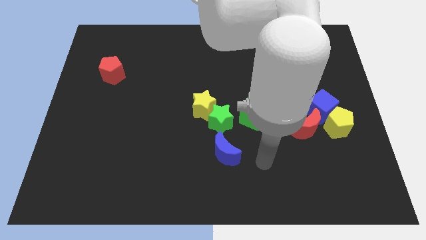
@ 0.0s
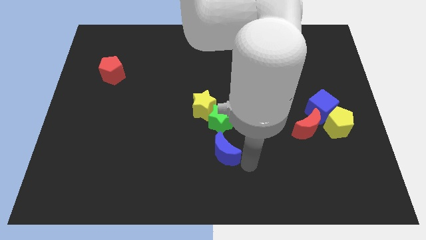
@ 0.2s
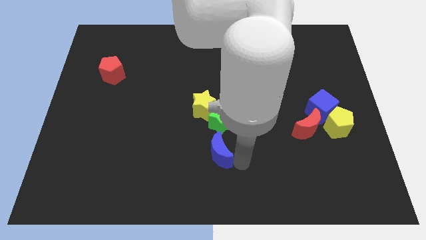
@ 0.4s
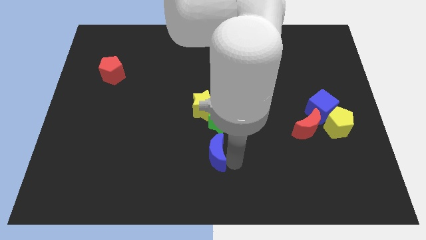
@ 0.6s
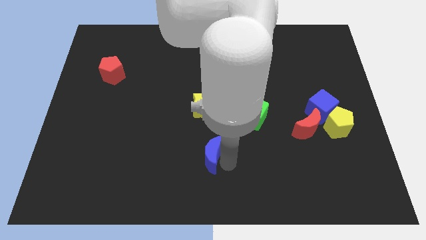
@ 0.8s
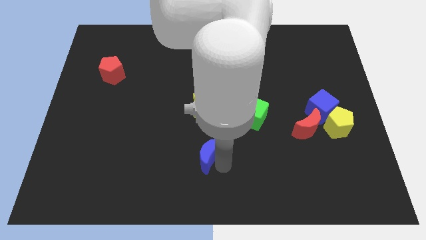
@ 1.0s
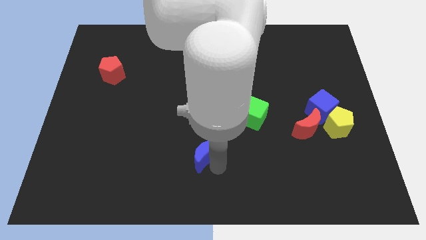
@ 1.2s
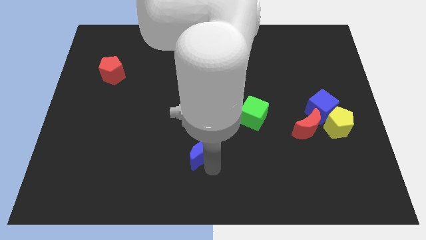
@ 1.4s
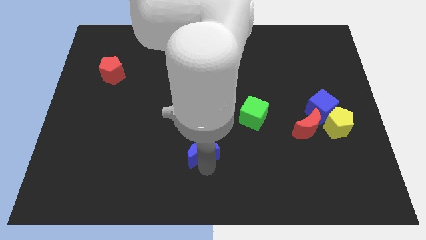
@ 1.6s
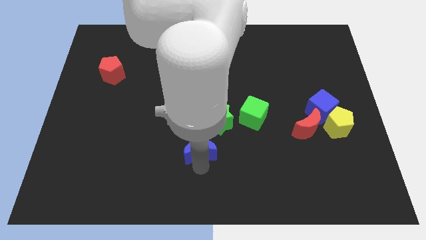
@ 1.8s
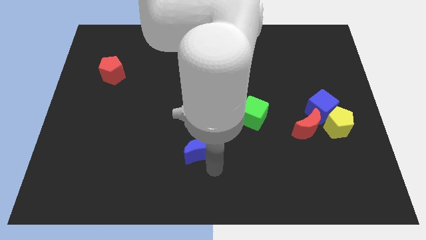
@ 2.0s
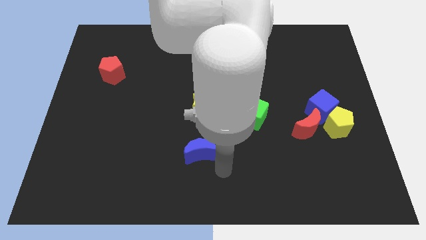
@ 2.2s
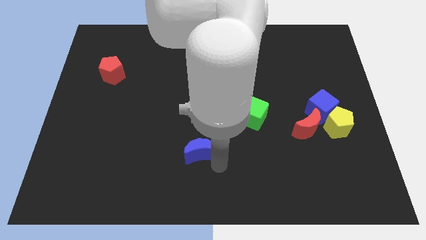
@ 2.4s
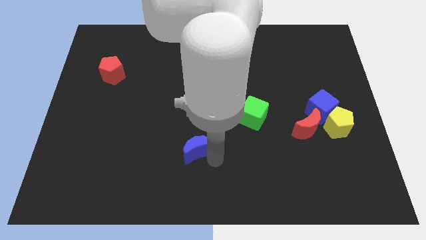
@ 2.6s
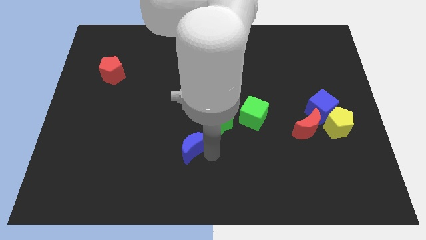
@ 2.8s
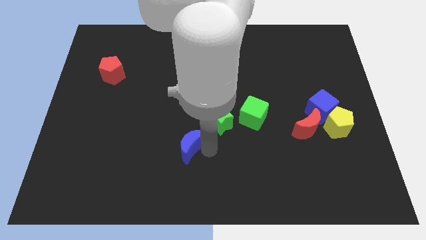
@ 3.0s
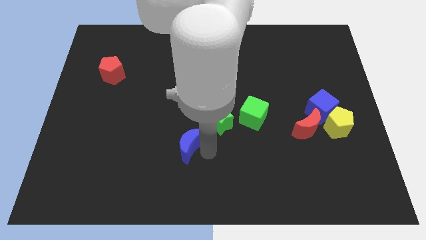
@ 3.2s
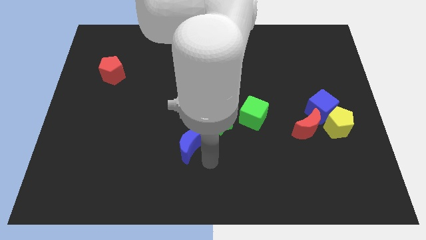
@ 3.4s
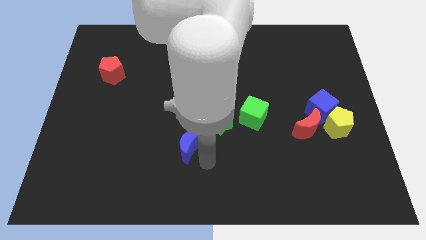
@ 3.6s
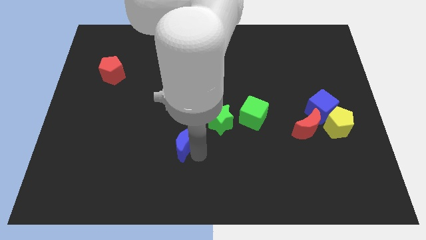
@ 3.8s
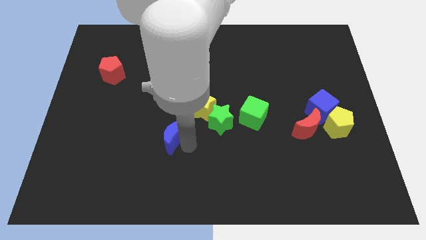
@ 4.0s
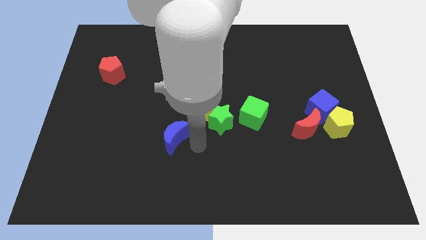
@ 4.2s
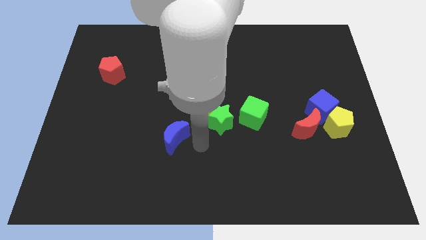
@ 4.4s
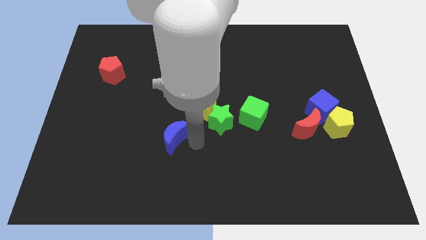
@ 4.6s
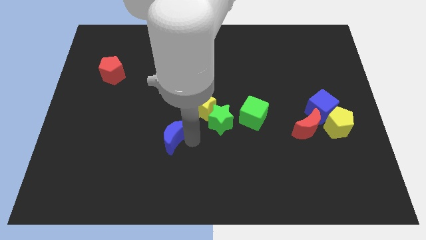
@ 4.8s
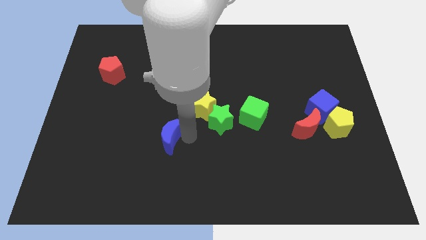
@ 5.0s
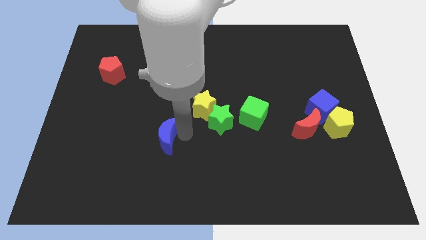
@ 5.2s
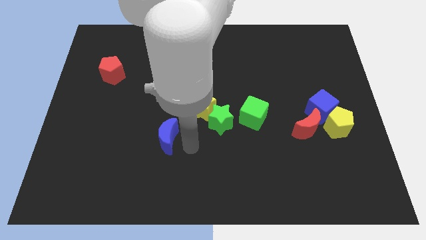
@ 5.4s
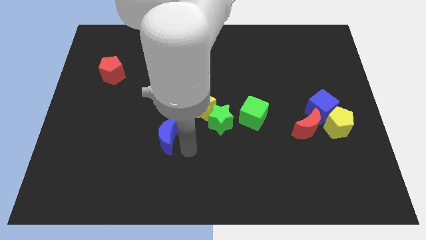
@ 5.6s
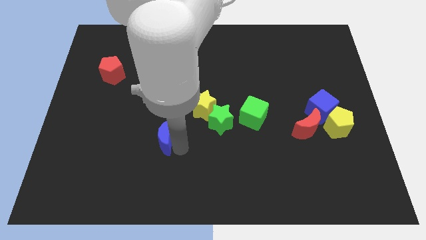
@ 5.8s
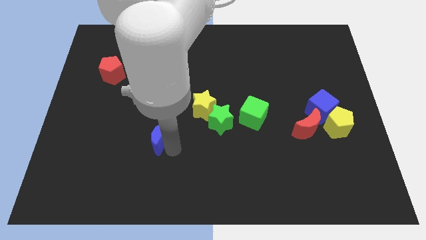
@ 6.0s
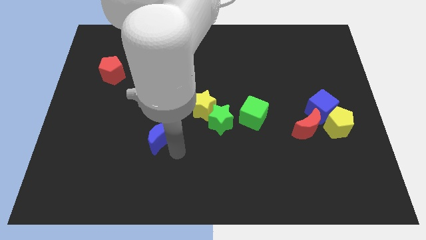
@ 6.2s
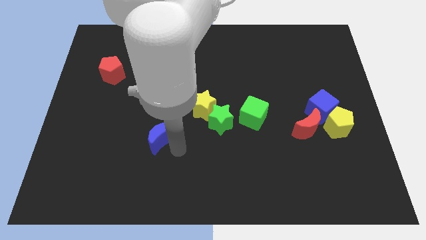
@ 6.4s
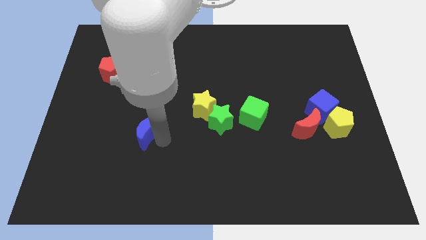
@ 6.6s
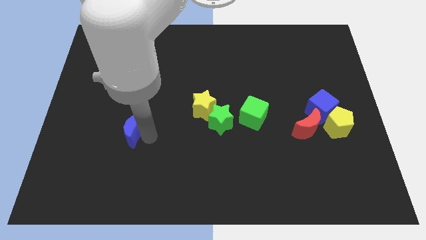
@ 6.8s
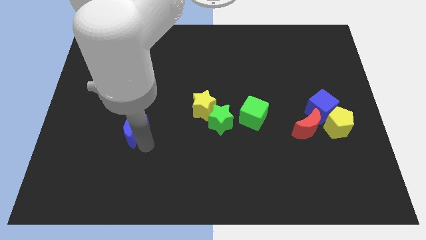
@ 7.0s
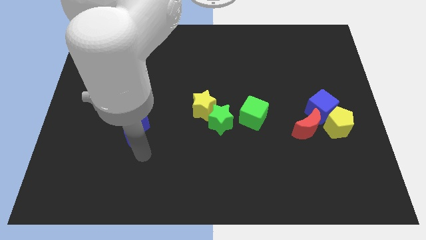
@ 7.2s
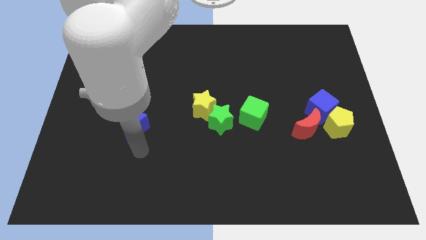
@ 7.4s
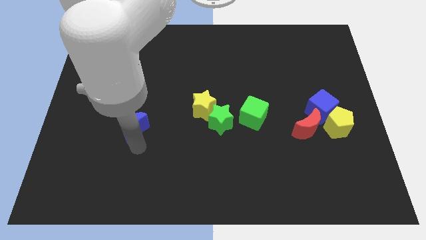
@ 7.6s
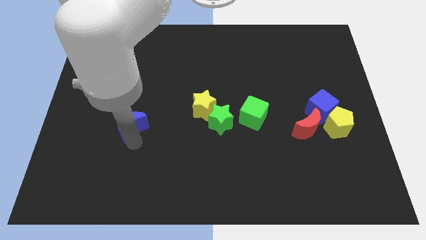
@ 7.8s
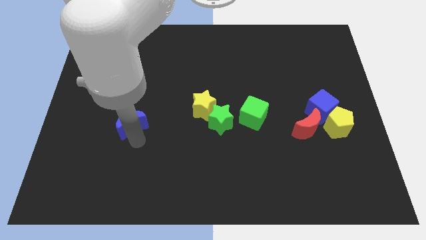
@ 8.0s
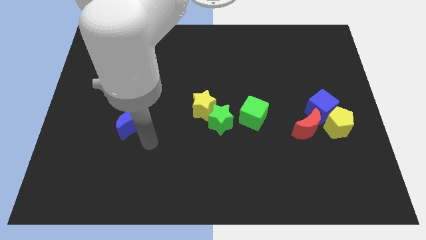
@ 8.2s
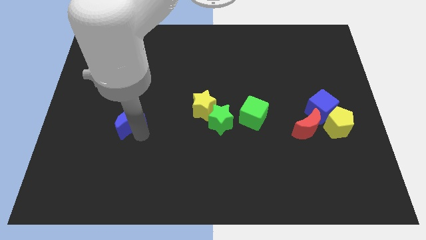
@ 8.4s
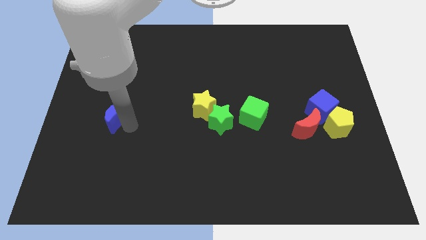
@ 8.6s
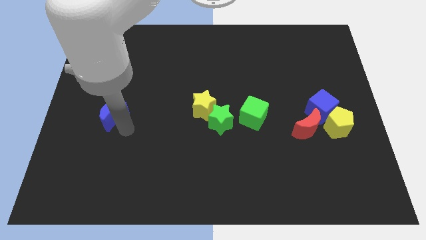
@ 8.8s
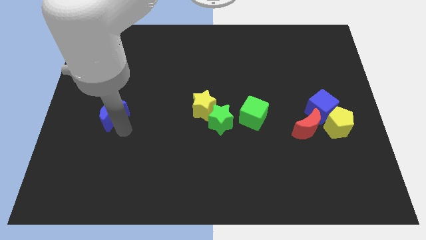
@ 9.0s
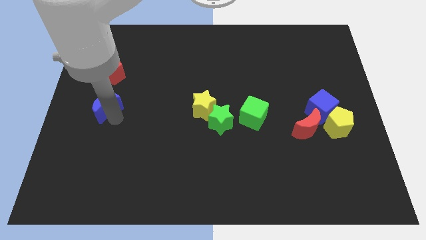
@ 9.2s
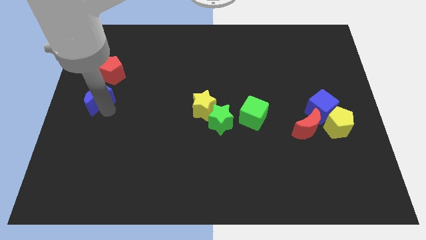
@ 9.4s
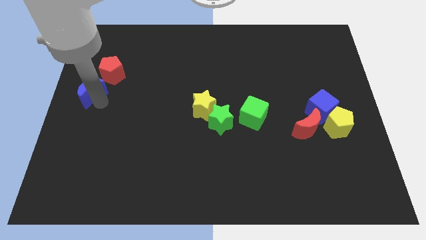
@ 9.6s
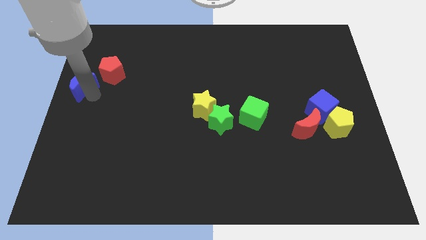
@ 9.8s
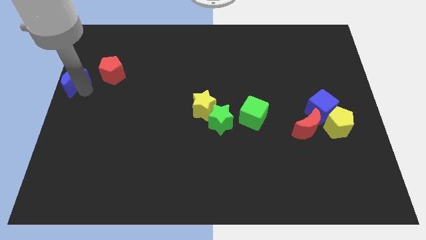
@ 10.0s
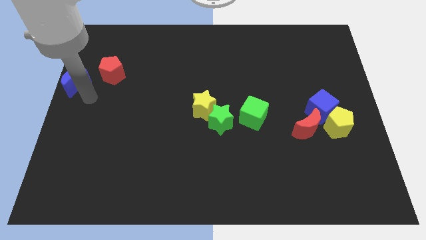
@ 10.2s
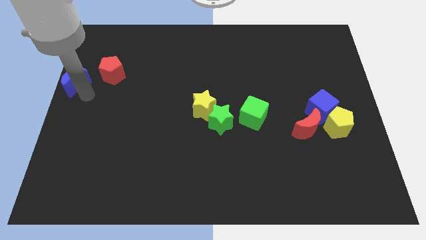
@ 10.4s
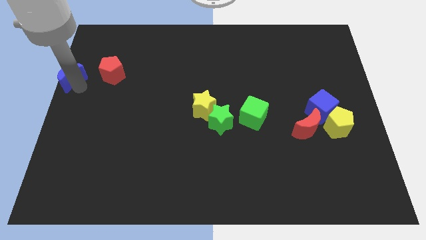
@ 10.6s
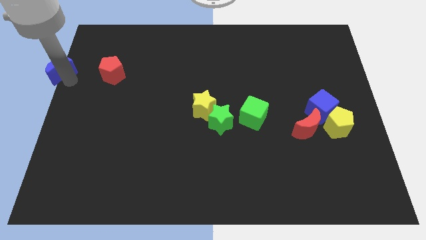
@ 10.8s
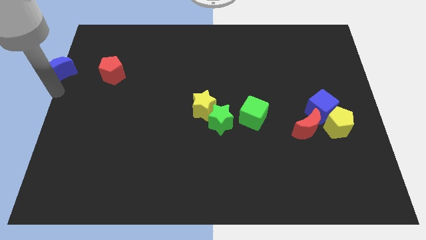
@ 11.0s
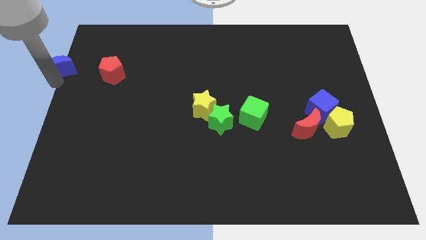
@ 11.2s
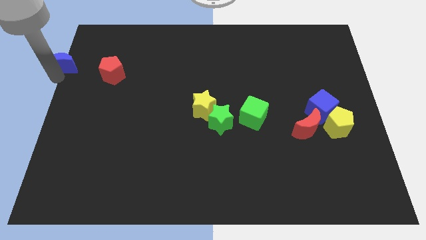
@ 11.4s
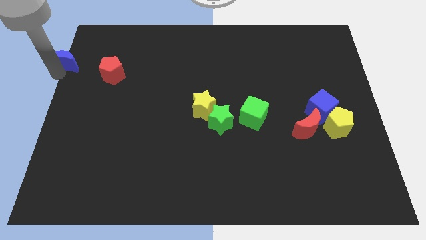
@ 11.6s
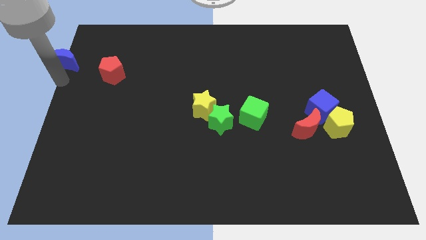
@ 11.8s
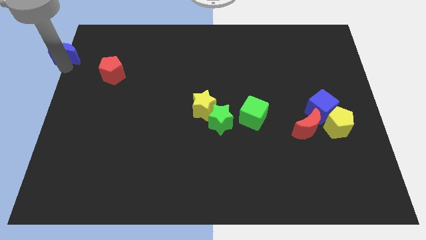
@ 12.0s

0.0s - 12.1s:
slide the blue moon to the top left
